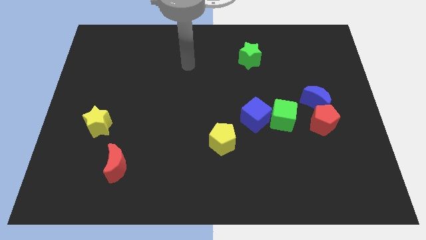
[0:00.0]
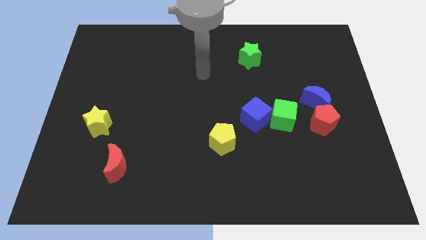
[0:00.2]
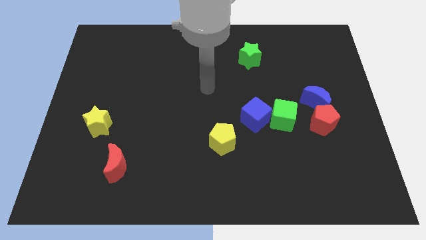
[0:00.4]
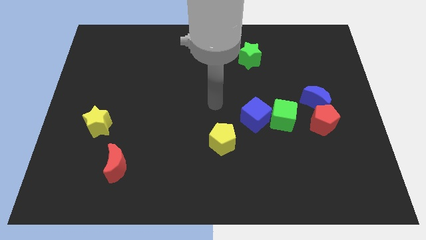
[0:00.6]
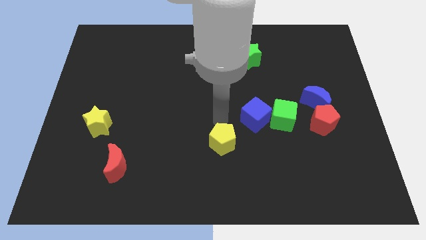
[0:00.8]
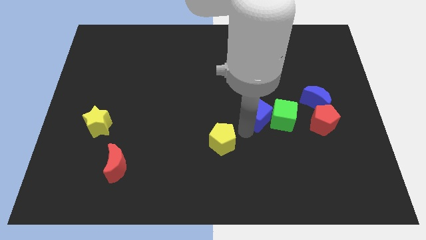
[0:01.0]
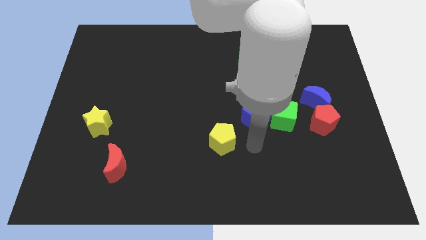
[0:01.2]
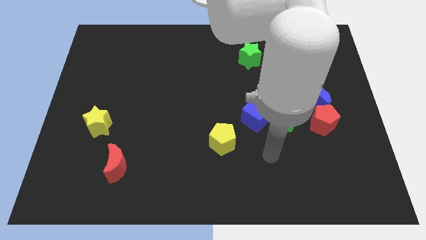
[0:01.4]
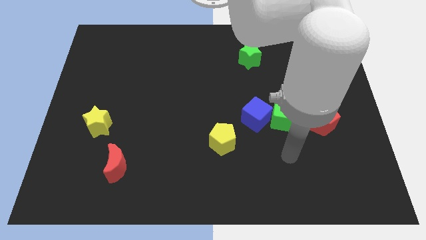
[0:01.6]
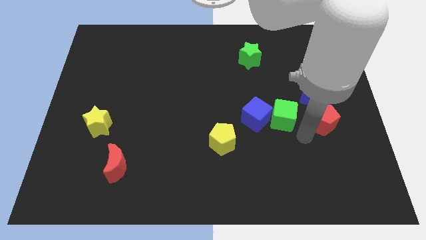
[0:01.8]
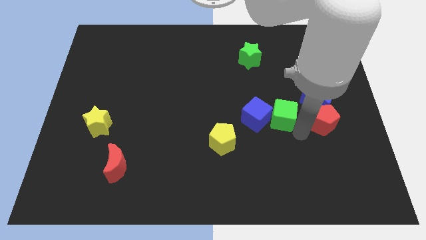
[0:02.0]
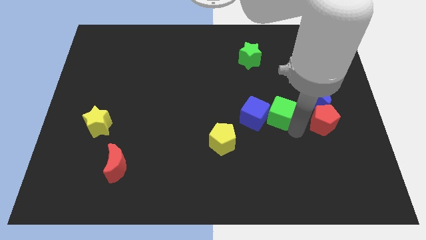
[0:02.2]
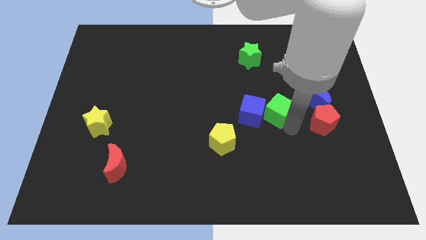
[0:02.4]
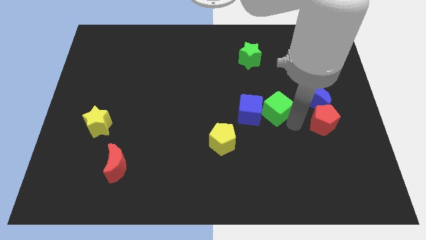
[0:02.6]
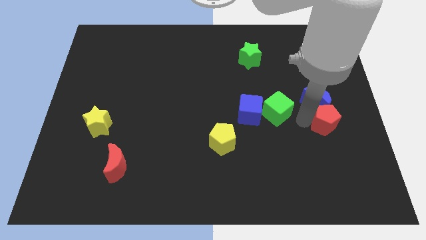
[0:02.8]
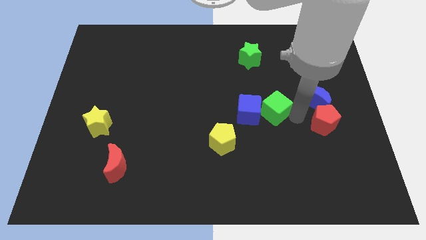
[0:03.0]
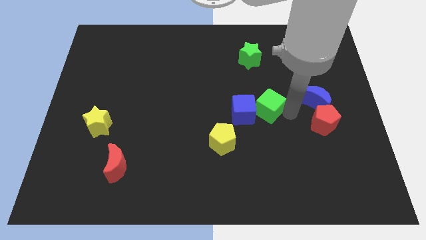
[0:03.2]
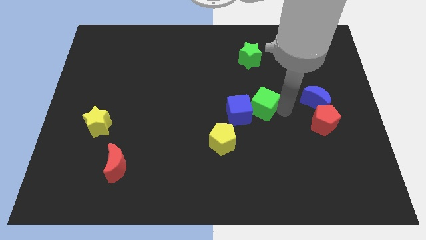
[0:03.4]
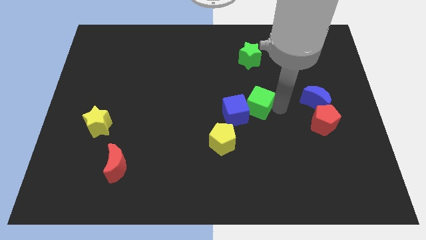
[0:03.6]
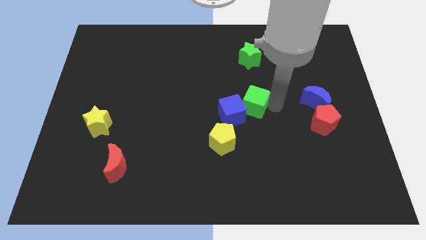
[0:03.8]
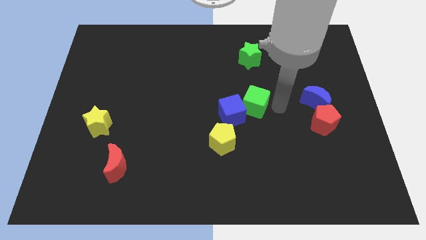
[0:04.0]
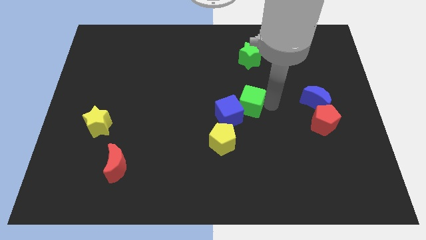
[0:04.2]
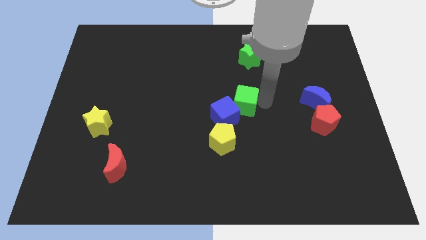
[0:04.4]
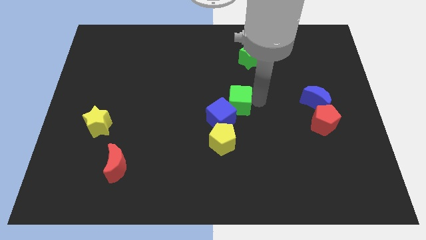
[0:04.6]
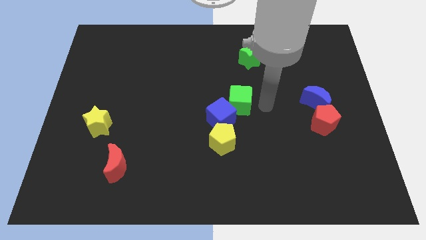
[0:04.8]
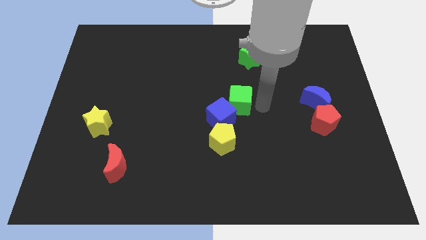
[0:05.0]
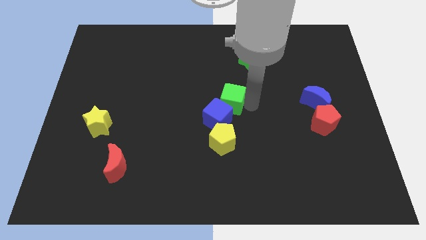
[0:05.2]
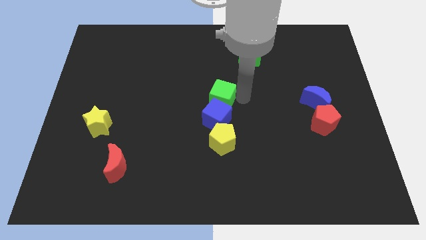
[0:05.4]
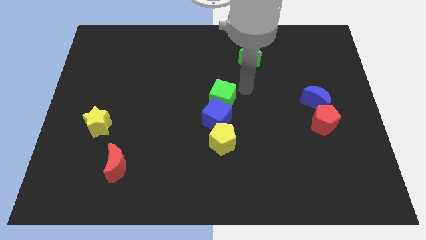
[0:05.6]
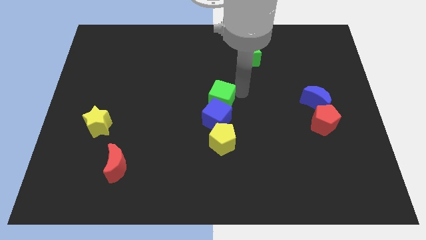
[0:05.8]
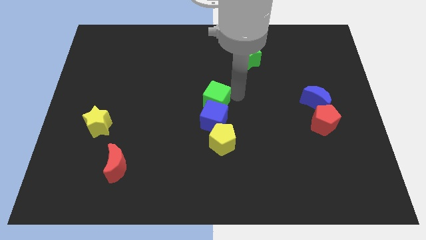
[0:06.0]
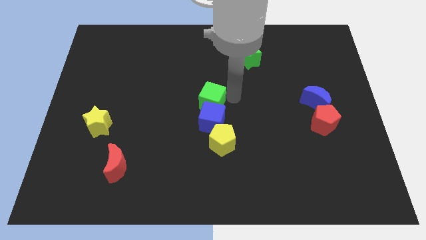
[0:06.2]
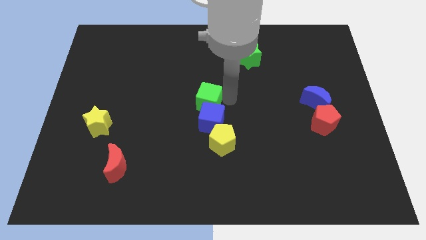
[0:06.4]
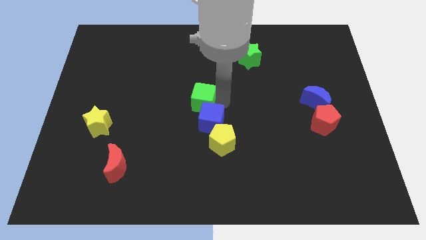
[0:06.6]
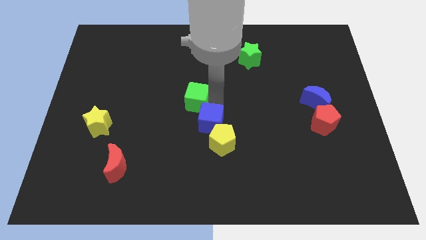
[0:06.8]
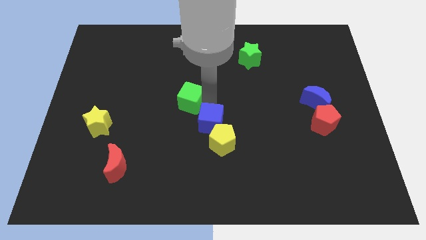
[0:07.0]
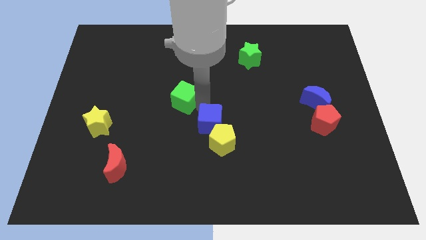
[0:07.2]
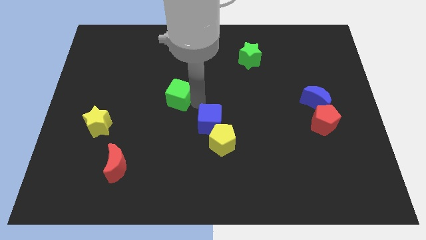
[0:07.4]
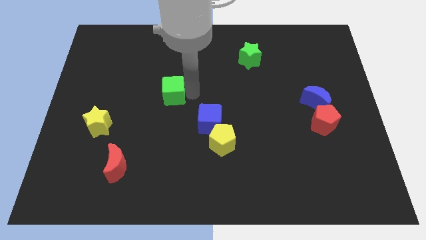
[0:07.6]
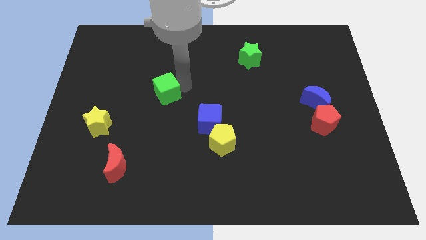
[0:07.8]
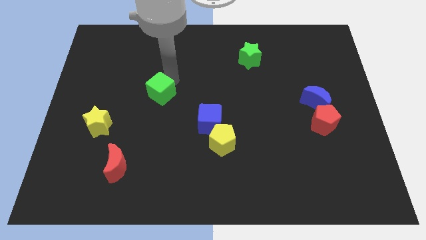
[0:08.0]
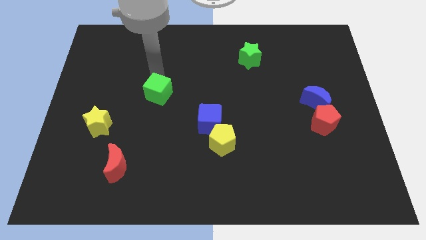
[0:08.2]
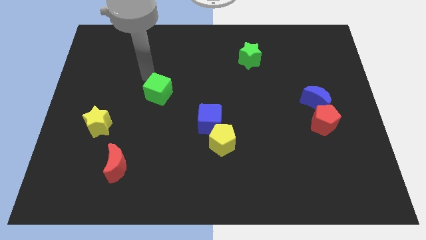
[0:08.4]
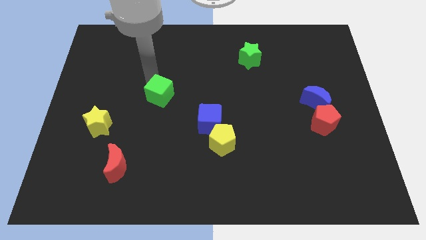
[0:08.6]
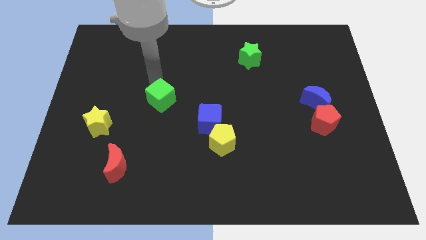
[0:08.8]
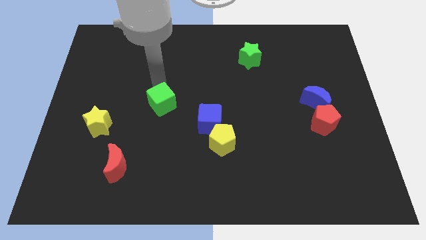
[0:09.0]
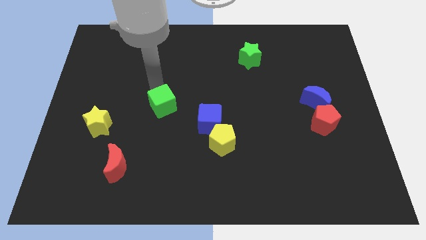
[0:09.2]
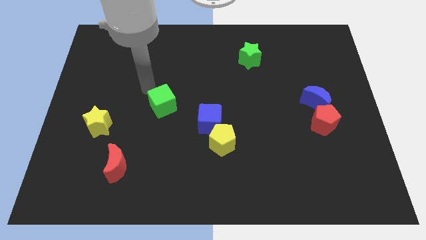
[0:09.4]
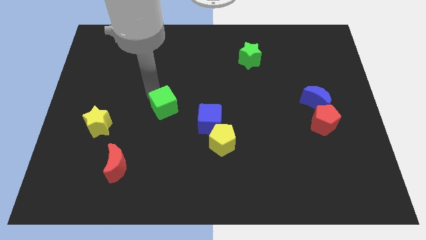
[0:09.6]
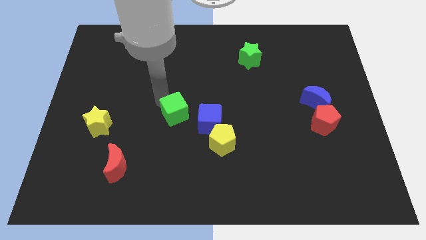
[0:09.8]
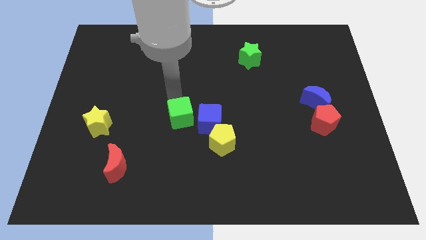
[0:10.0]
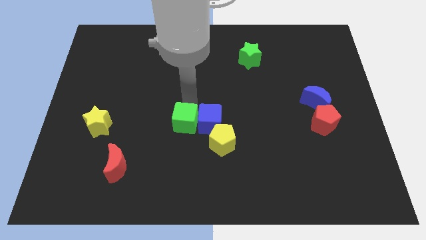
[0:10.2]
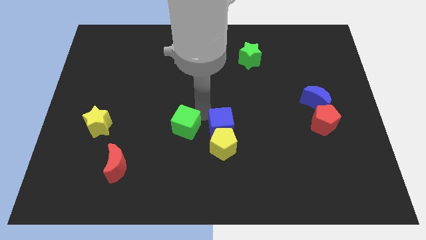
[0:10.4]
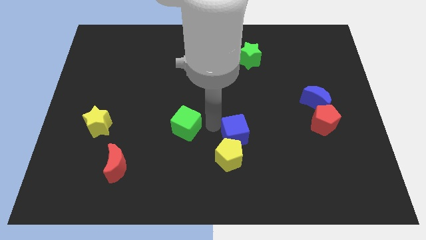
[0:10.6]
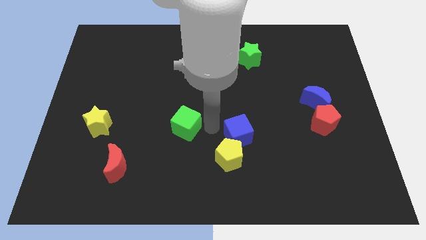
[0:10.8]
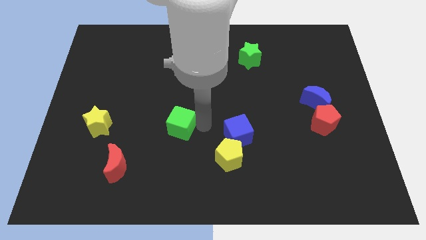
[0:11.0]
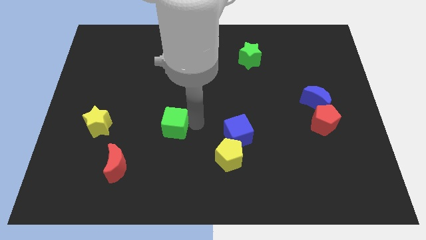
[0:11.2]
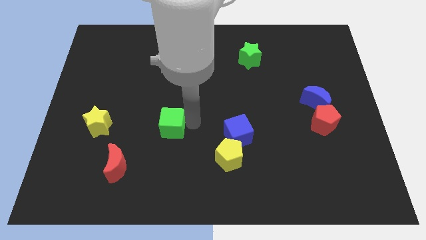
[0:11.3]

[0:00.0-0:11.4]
slide the green cube just right of the yellow star

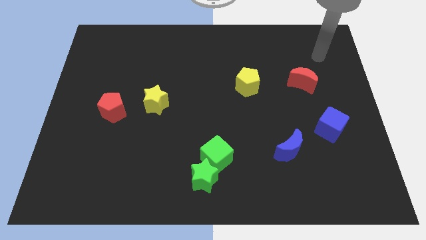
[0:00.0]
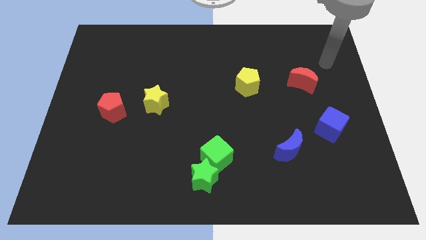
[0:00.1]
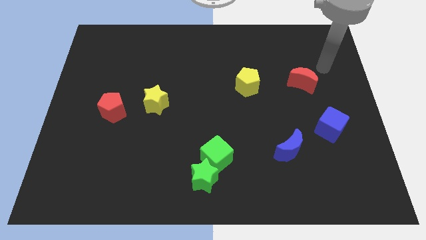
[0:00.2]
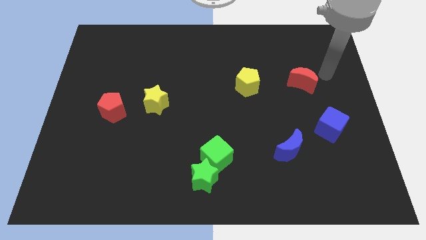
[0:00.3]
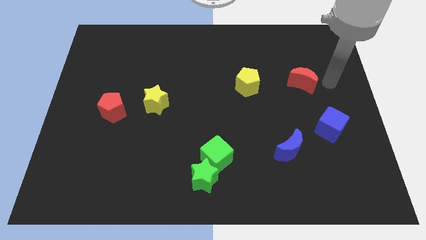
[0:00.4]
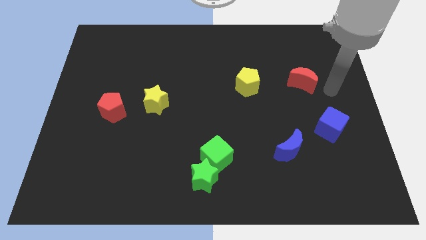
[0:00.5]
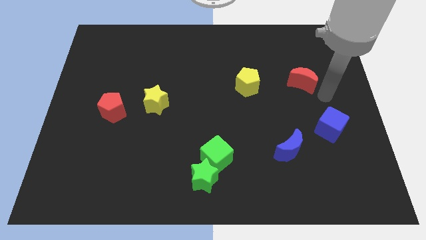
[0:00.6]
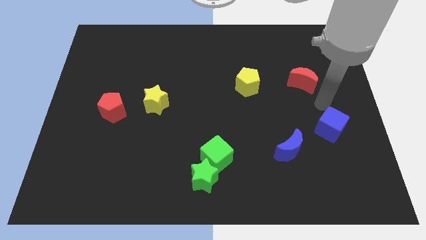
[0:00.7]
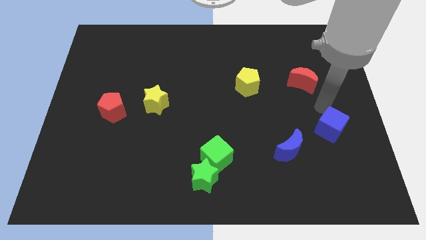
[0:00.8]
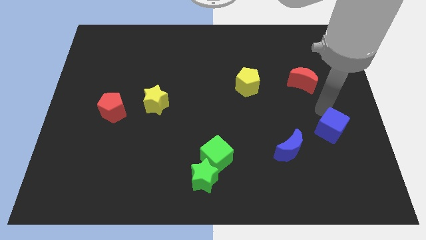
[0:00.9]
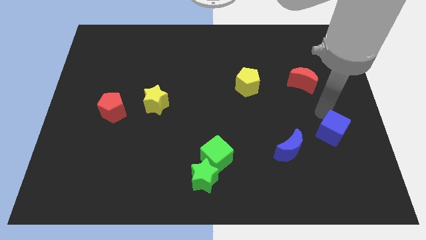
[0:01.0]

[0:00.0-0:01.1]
put the blue cube right of the blue moon

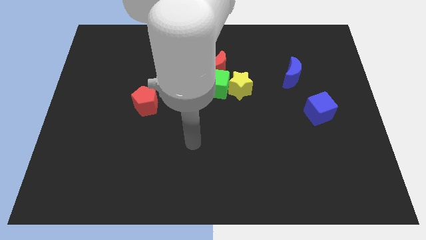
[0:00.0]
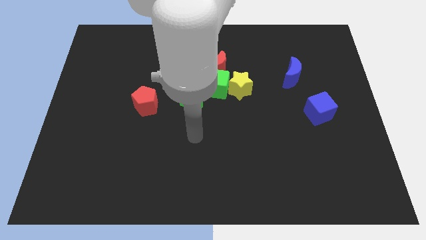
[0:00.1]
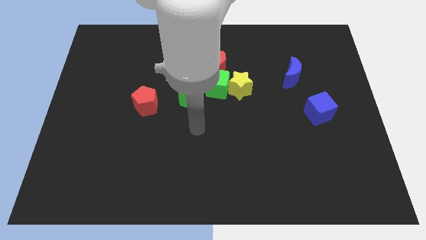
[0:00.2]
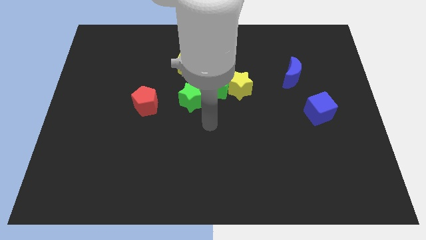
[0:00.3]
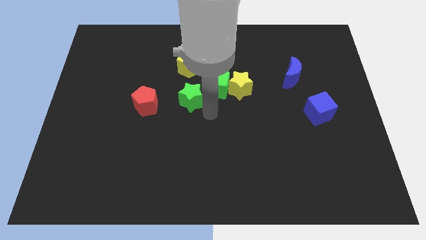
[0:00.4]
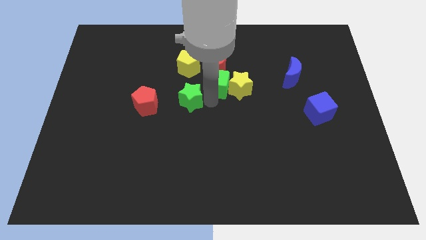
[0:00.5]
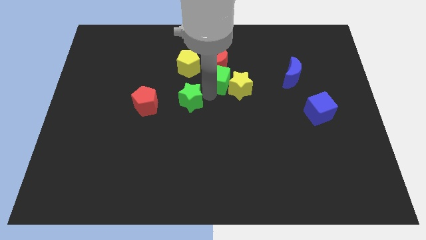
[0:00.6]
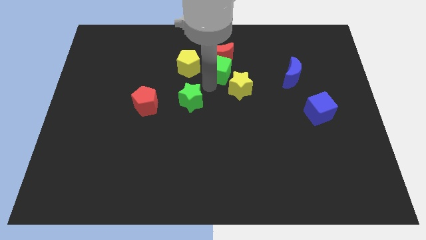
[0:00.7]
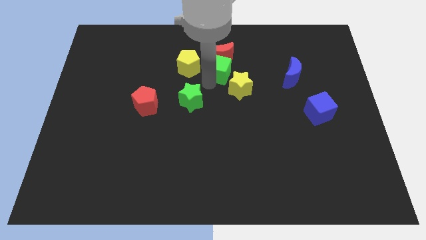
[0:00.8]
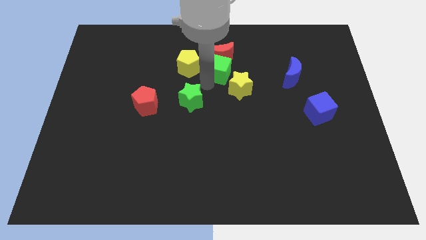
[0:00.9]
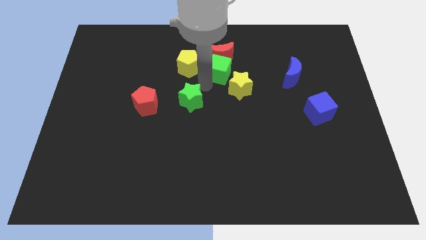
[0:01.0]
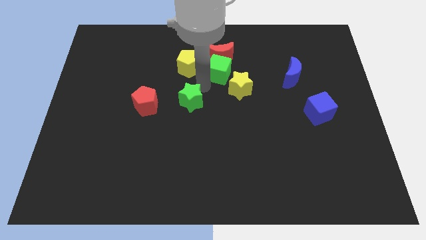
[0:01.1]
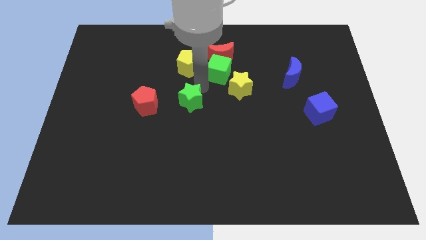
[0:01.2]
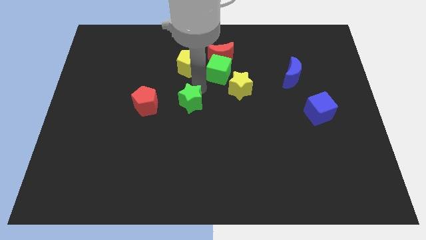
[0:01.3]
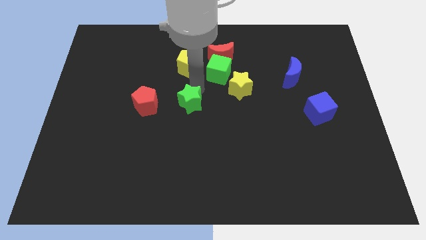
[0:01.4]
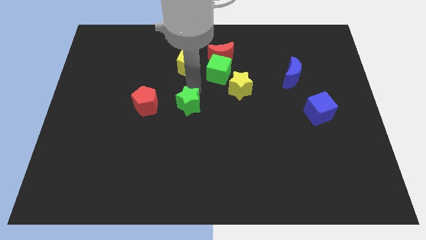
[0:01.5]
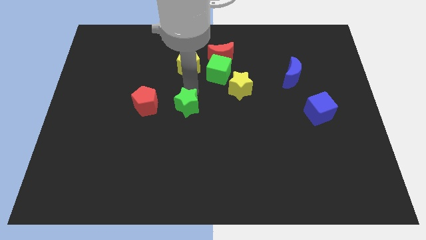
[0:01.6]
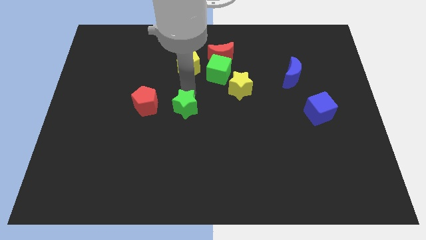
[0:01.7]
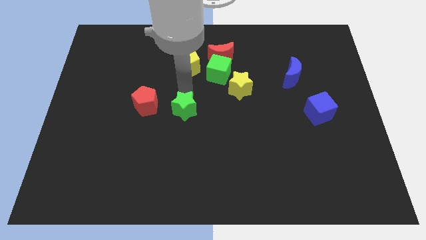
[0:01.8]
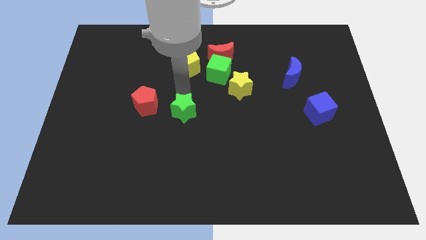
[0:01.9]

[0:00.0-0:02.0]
slide the green star diagonally down and to the right of the red pentagon
